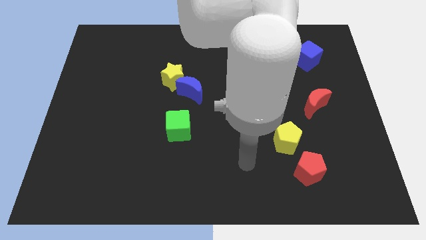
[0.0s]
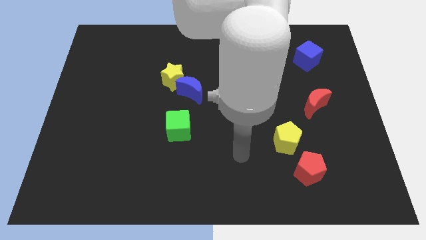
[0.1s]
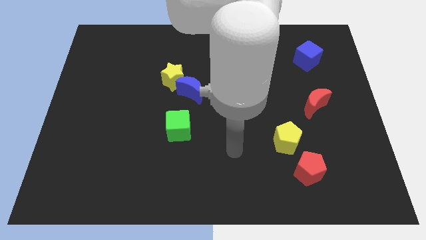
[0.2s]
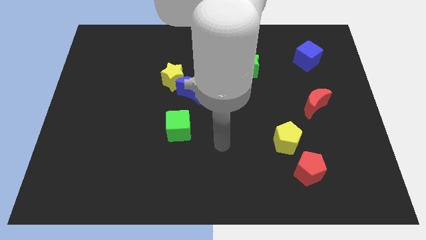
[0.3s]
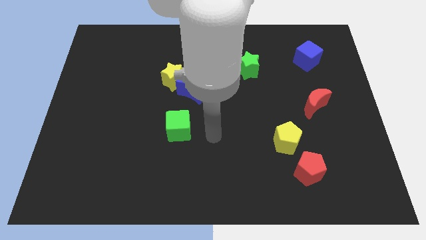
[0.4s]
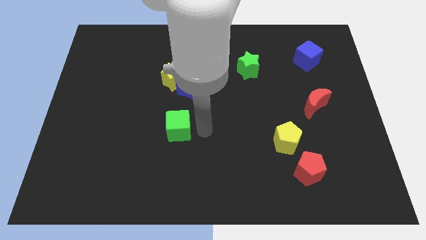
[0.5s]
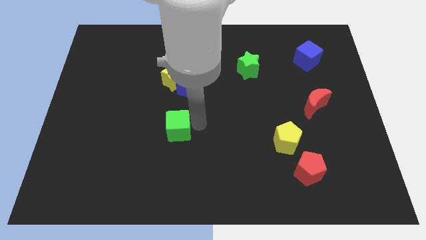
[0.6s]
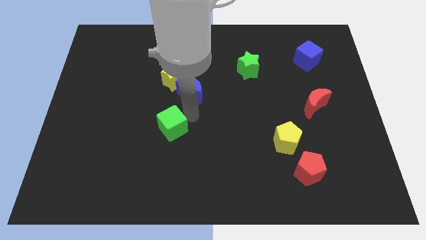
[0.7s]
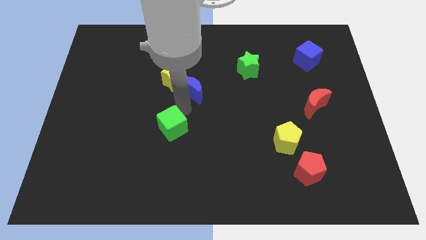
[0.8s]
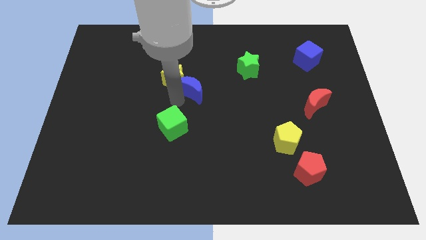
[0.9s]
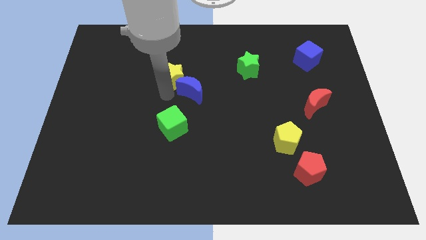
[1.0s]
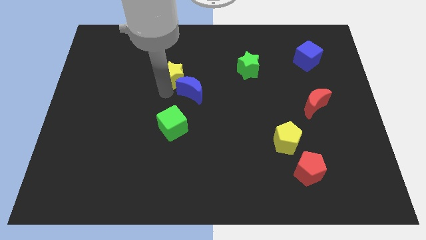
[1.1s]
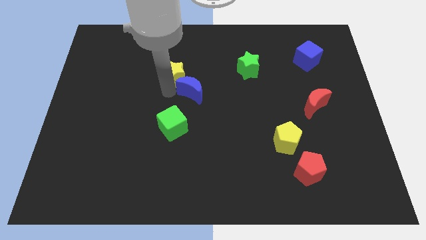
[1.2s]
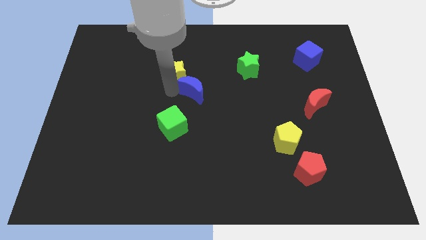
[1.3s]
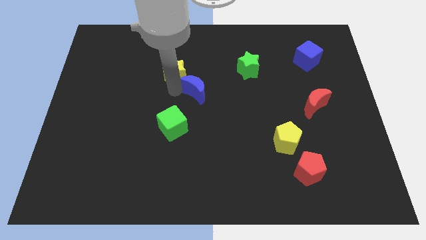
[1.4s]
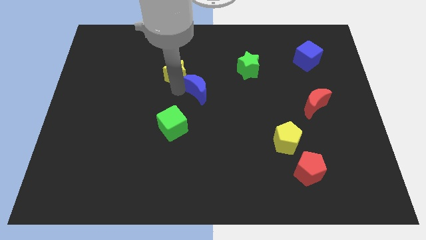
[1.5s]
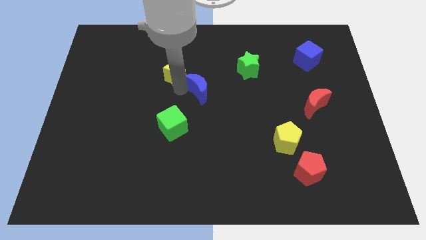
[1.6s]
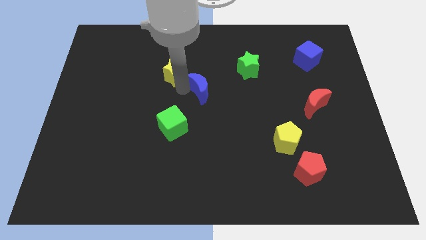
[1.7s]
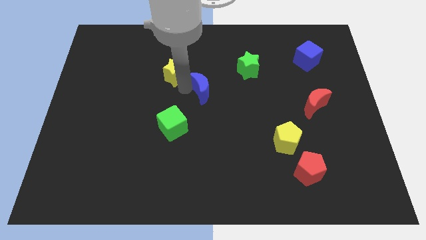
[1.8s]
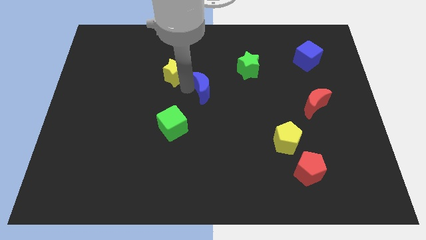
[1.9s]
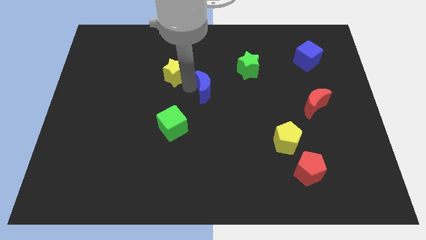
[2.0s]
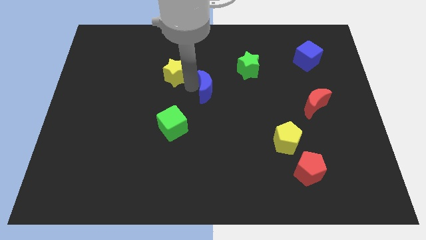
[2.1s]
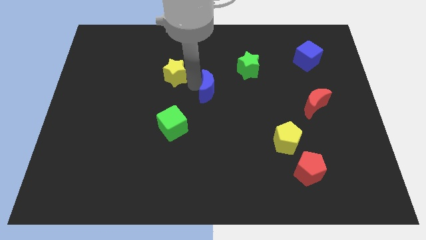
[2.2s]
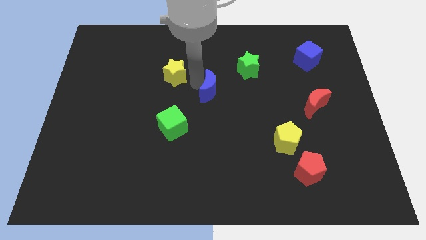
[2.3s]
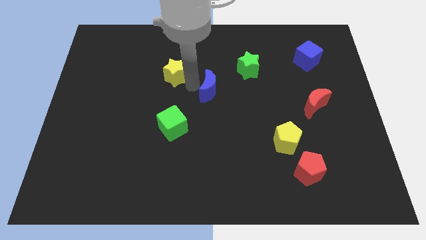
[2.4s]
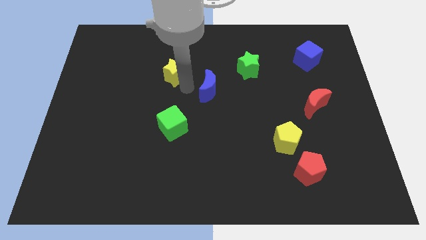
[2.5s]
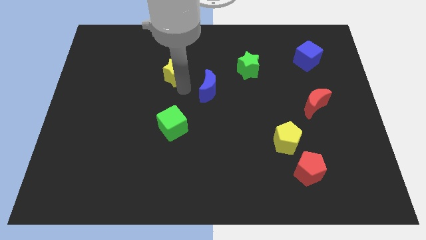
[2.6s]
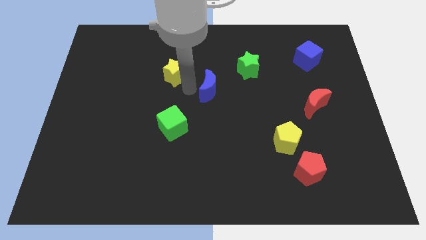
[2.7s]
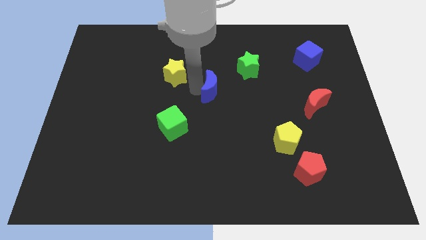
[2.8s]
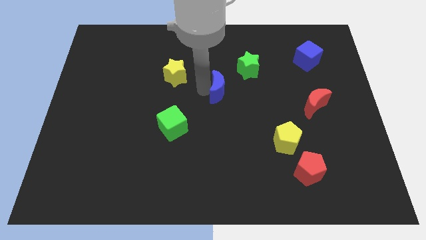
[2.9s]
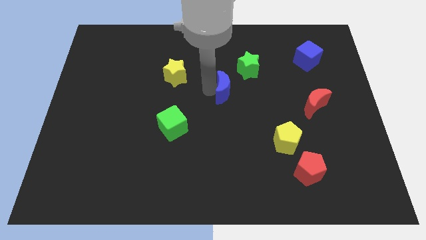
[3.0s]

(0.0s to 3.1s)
slightly move the blue moon right

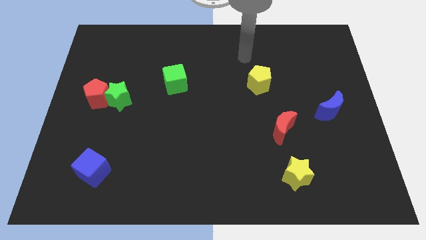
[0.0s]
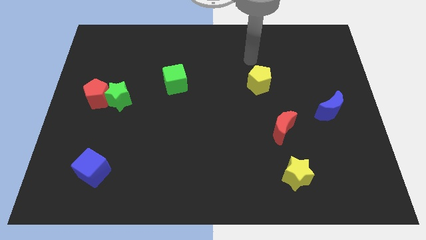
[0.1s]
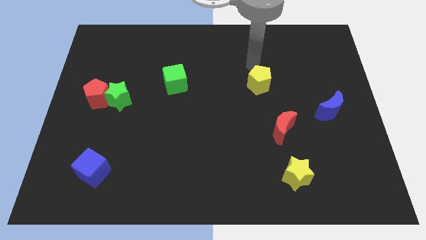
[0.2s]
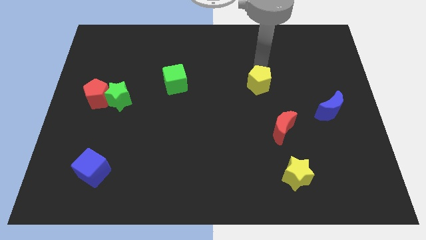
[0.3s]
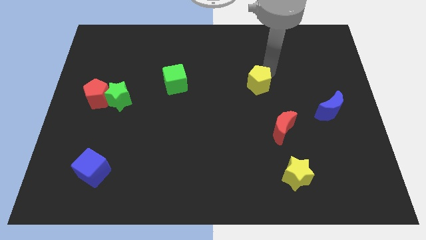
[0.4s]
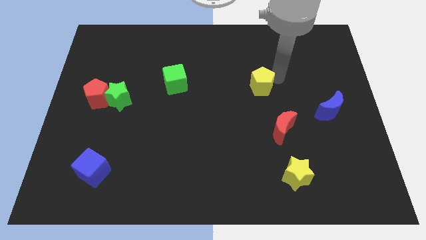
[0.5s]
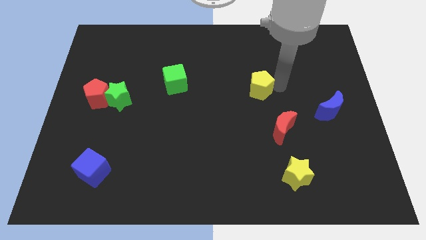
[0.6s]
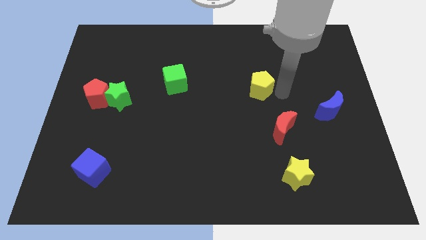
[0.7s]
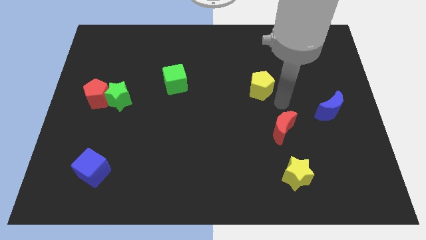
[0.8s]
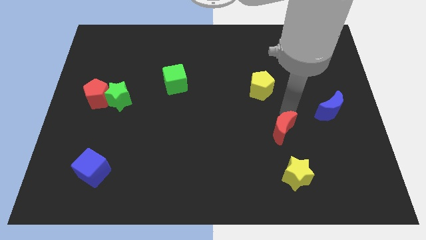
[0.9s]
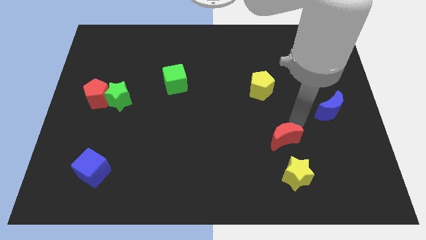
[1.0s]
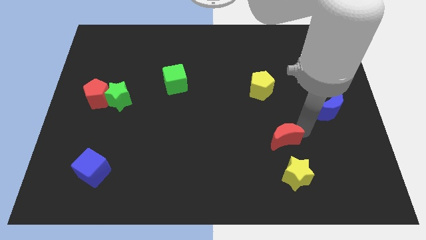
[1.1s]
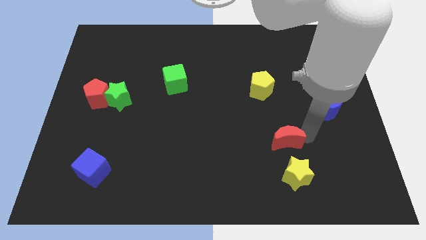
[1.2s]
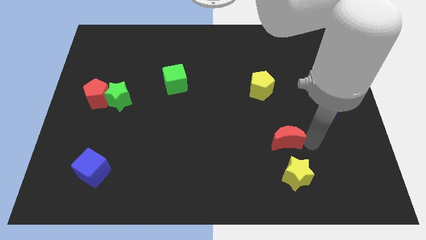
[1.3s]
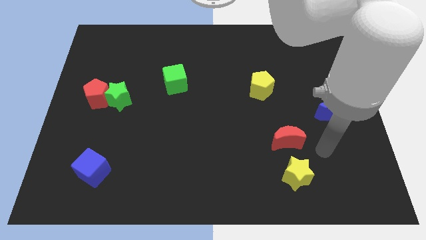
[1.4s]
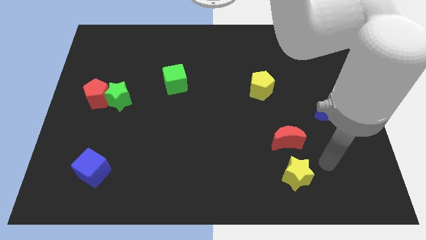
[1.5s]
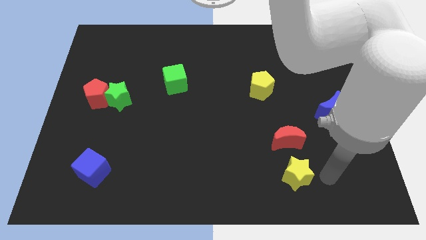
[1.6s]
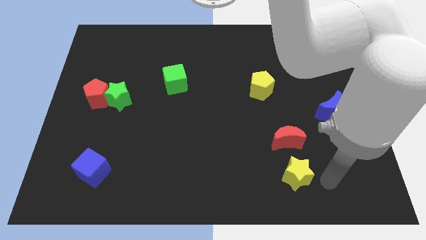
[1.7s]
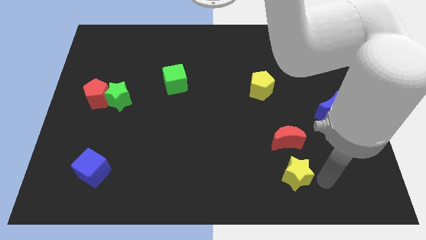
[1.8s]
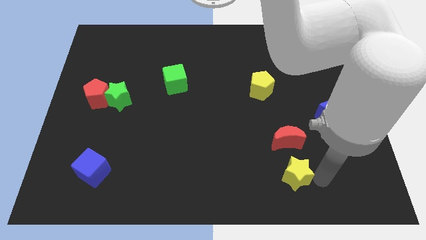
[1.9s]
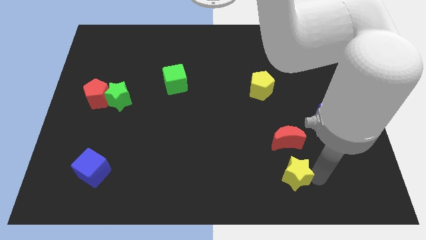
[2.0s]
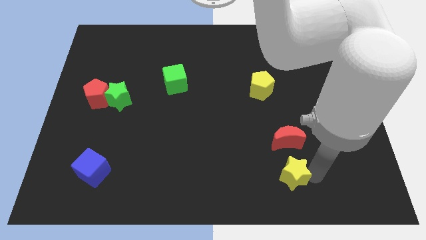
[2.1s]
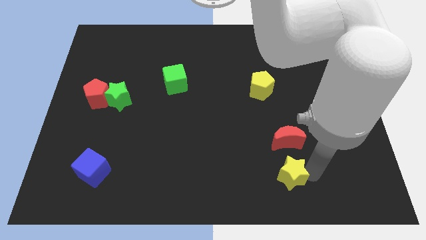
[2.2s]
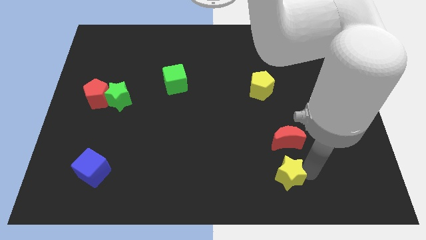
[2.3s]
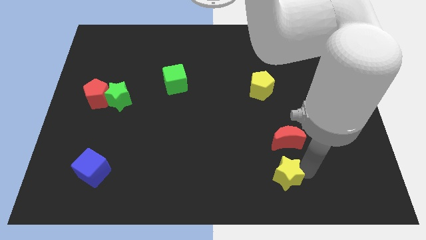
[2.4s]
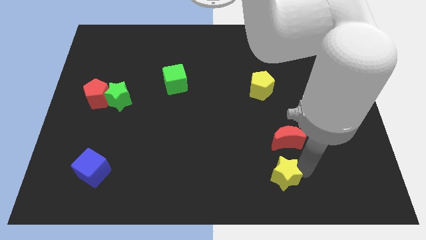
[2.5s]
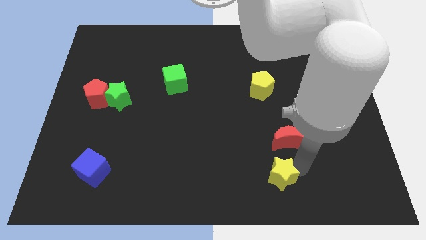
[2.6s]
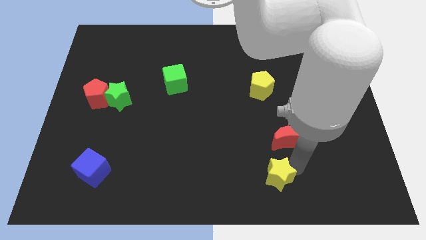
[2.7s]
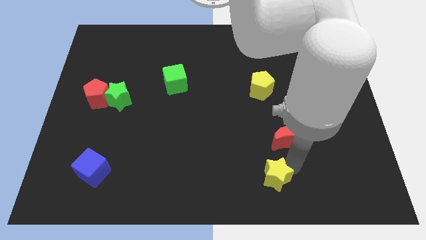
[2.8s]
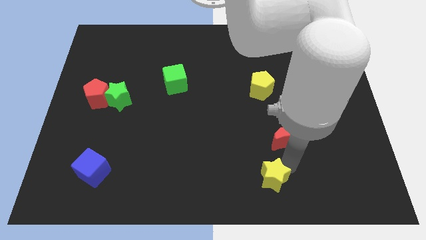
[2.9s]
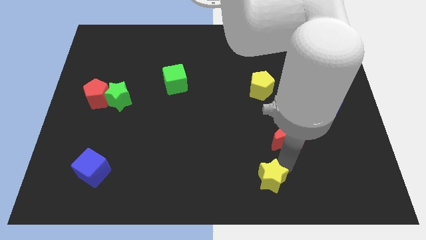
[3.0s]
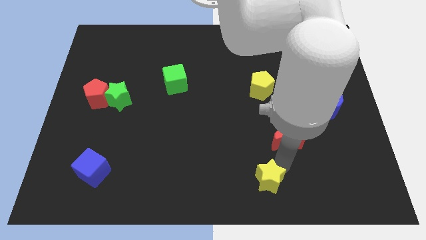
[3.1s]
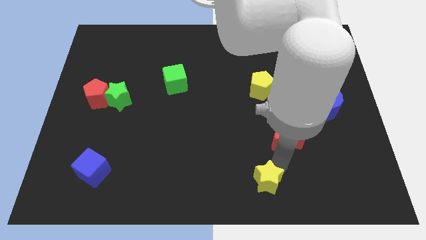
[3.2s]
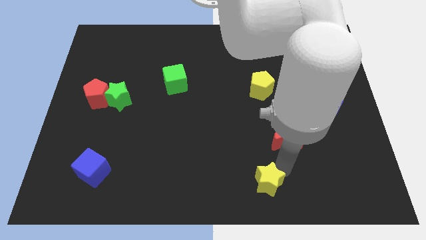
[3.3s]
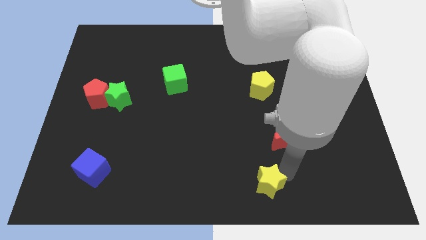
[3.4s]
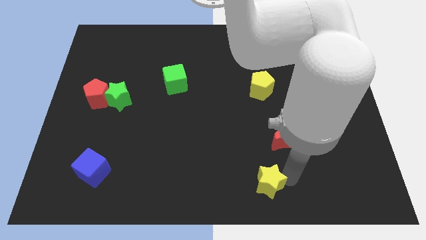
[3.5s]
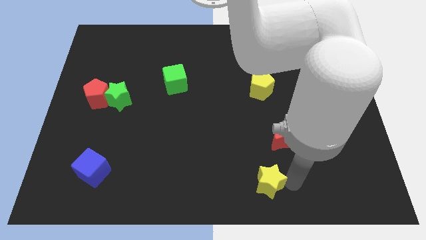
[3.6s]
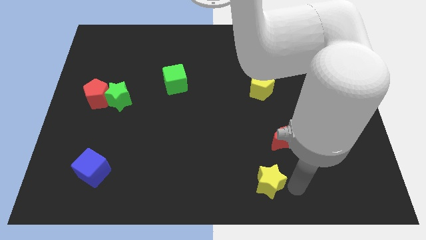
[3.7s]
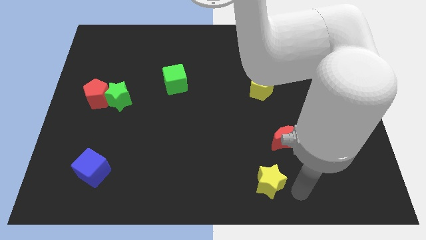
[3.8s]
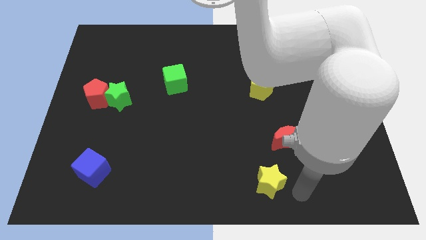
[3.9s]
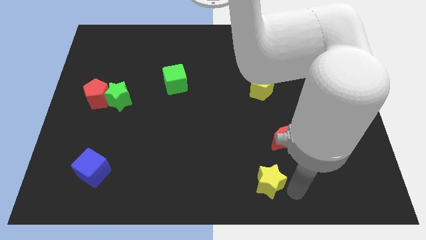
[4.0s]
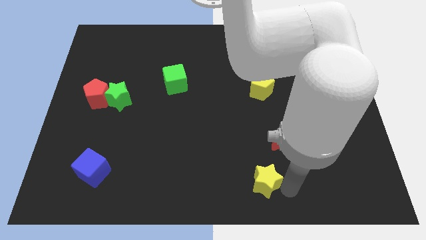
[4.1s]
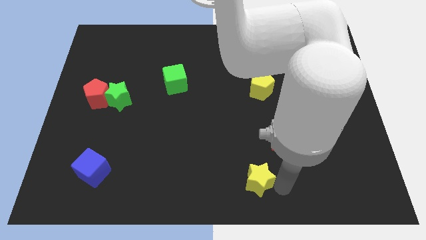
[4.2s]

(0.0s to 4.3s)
slightly push the yellow star to the left

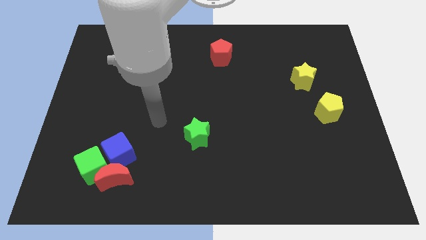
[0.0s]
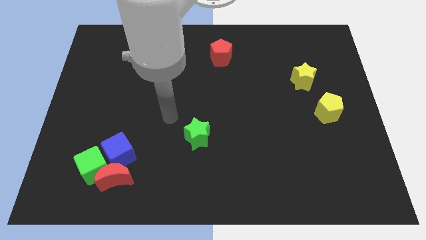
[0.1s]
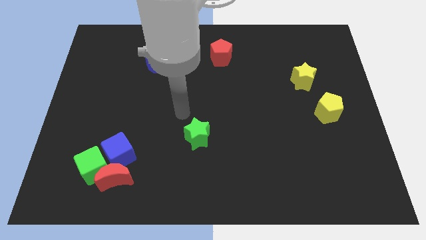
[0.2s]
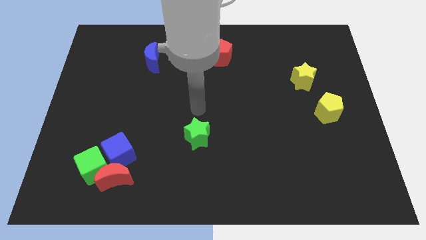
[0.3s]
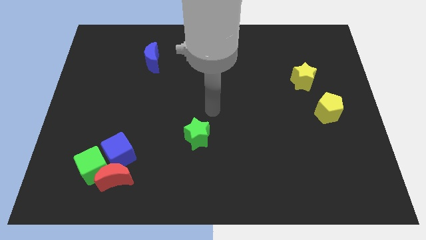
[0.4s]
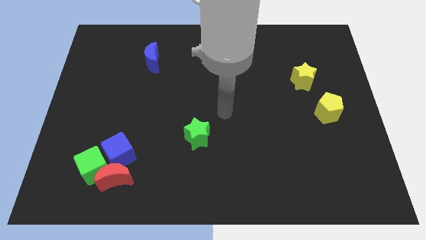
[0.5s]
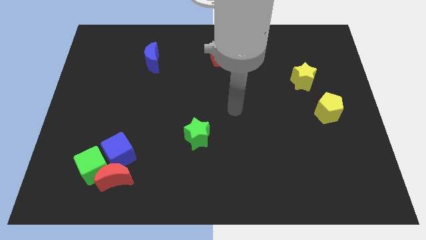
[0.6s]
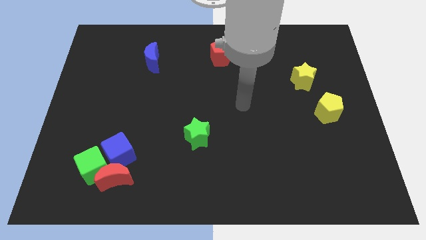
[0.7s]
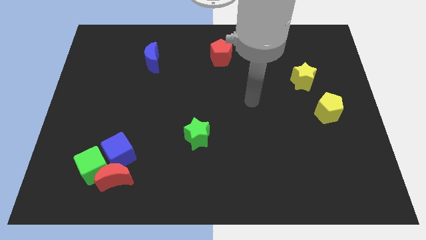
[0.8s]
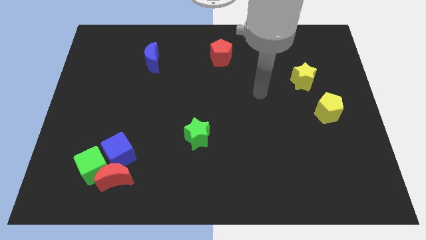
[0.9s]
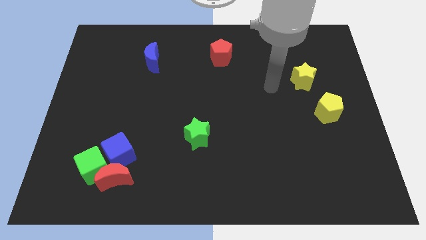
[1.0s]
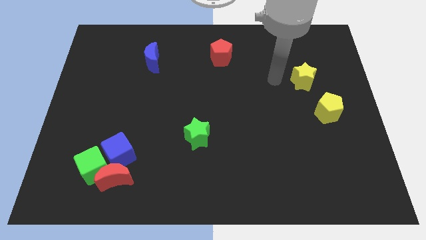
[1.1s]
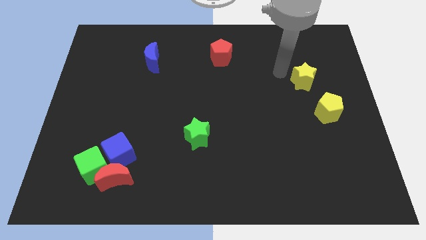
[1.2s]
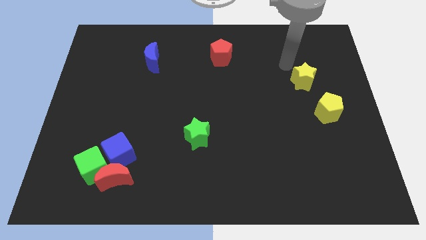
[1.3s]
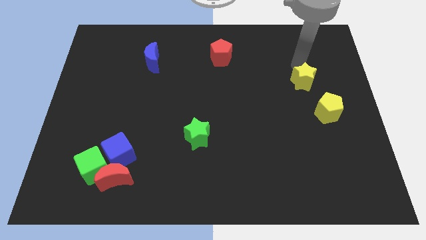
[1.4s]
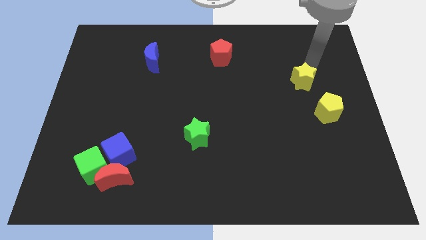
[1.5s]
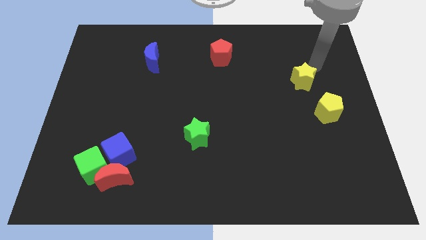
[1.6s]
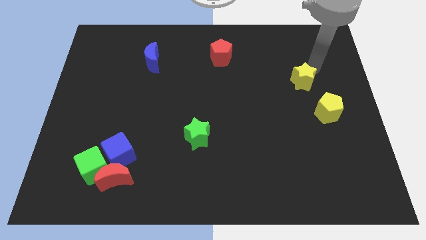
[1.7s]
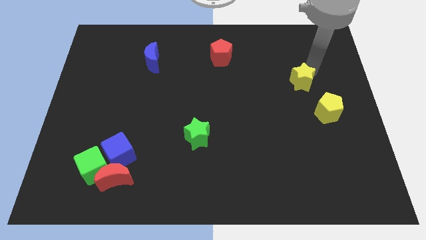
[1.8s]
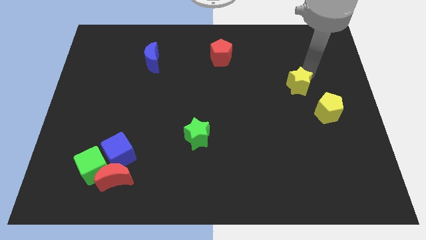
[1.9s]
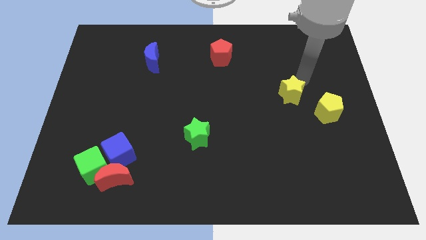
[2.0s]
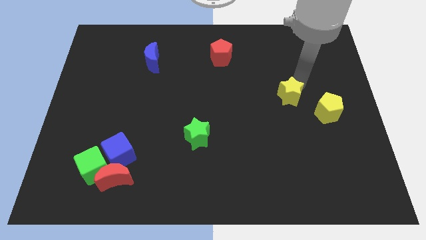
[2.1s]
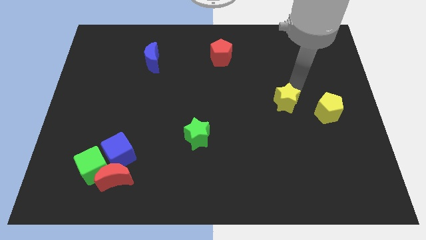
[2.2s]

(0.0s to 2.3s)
move the yellow star diagonally down and to the left slightly
